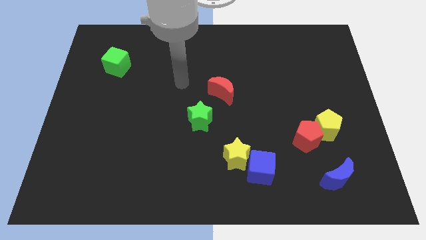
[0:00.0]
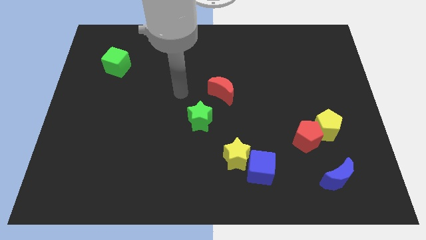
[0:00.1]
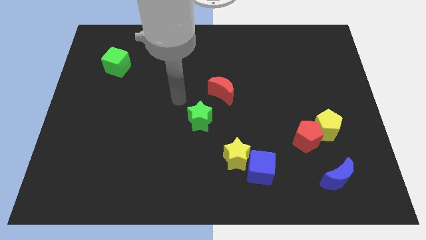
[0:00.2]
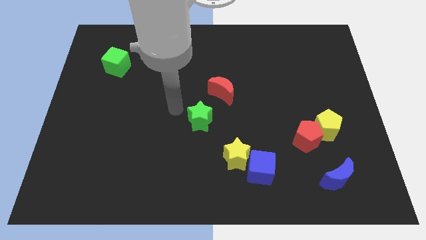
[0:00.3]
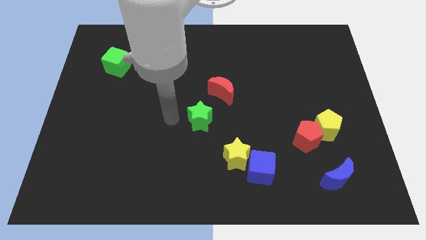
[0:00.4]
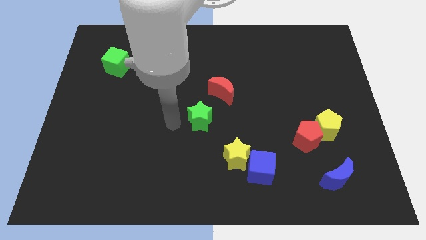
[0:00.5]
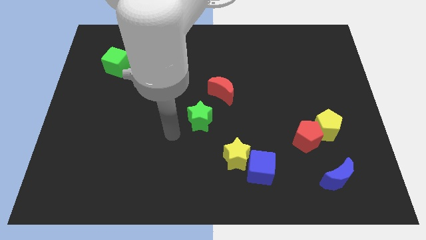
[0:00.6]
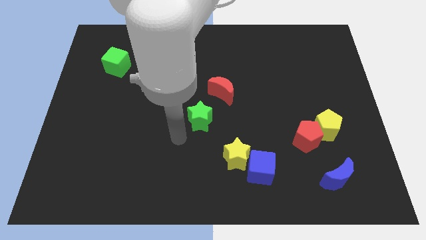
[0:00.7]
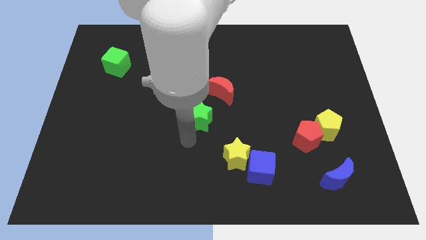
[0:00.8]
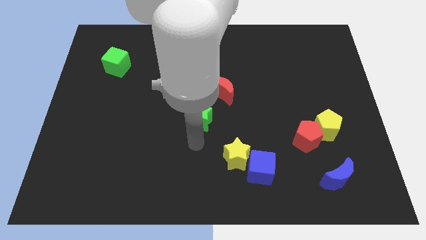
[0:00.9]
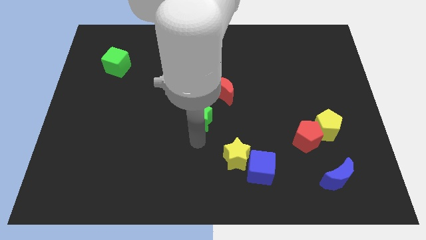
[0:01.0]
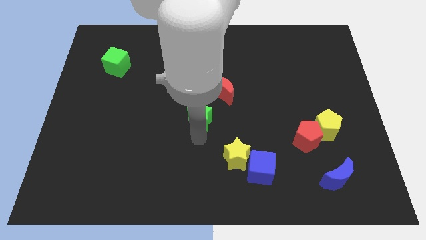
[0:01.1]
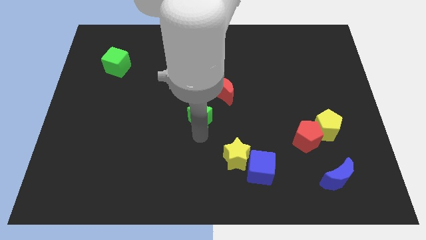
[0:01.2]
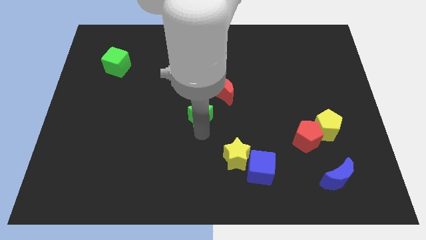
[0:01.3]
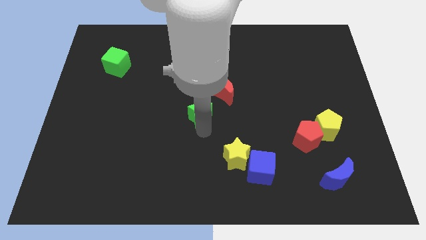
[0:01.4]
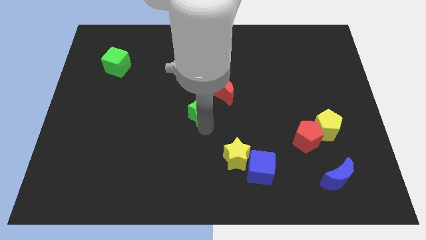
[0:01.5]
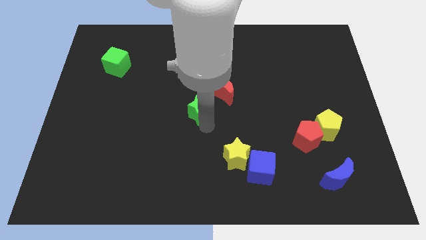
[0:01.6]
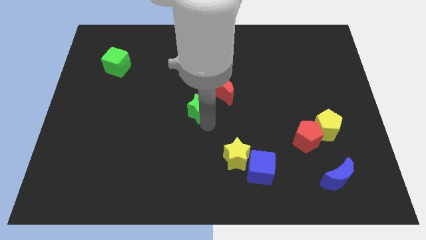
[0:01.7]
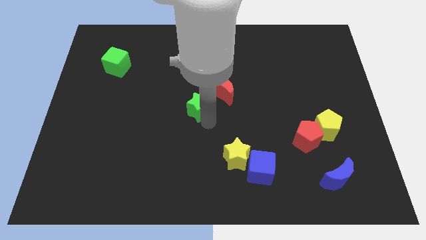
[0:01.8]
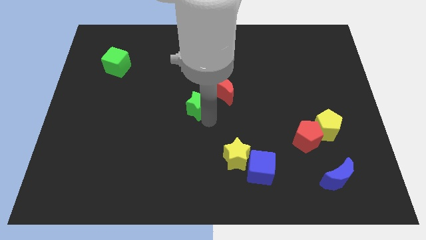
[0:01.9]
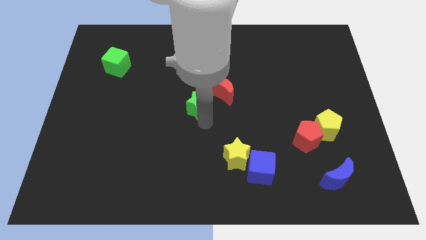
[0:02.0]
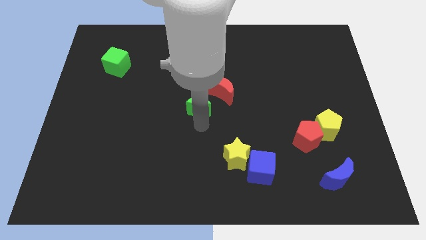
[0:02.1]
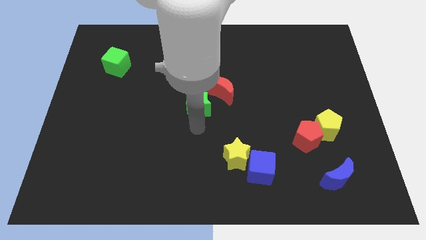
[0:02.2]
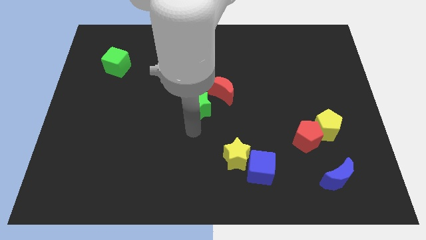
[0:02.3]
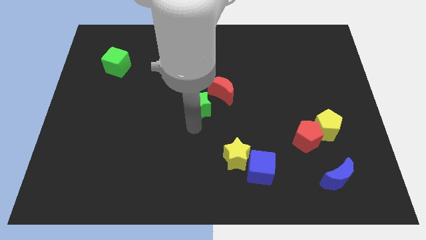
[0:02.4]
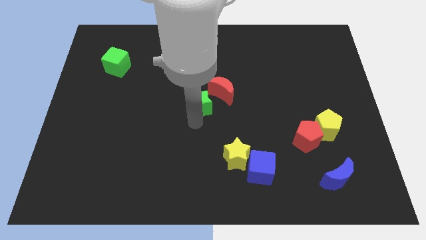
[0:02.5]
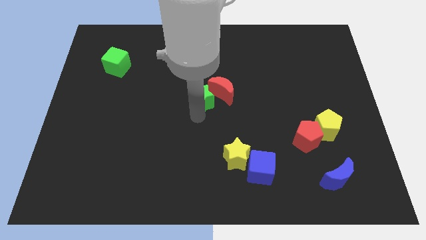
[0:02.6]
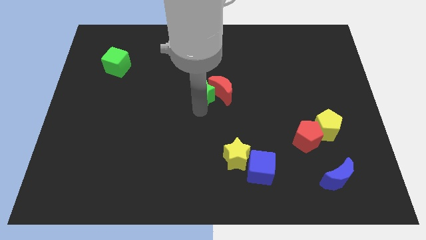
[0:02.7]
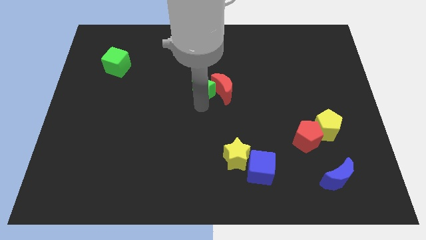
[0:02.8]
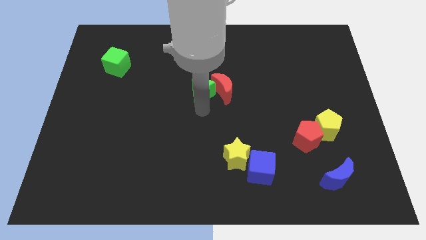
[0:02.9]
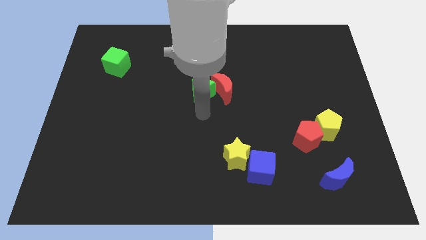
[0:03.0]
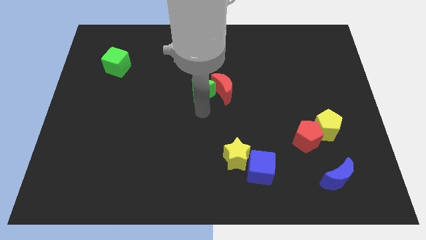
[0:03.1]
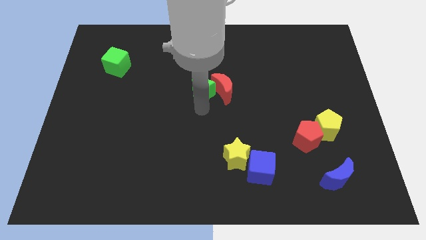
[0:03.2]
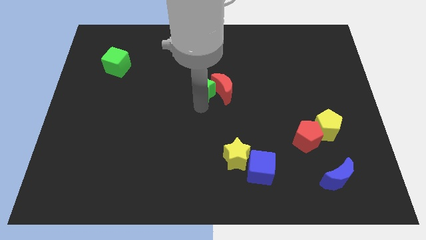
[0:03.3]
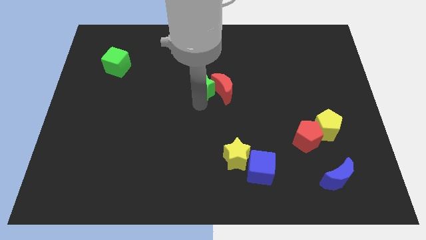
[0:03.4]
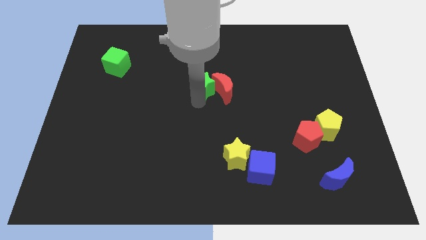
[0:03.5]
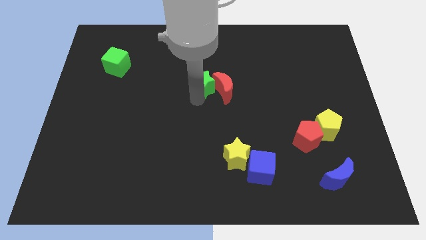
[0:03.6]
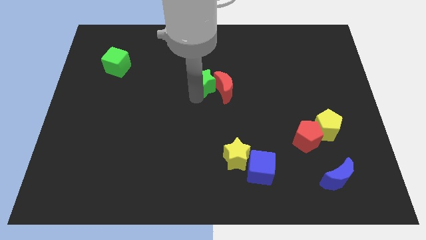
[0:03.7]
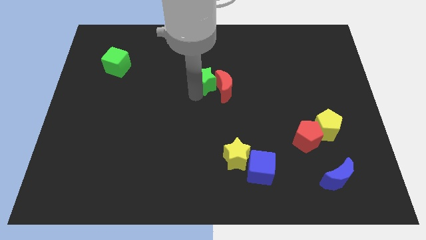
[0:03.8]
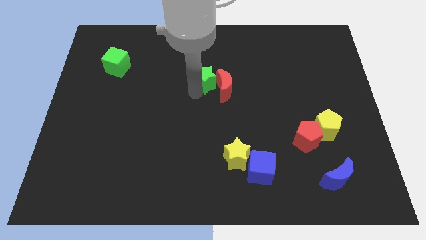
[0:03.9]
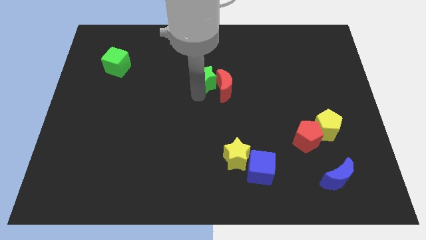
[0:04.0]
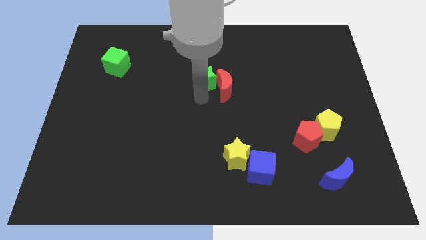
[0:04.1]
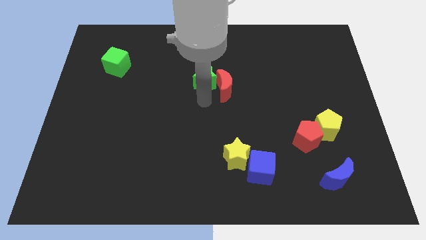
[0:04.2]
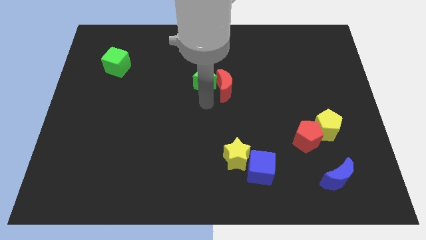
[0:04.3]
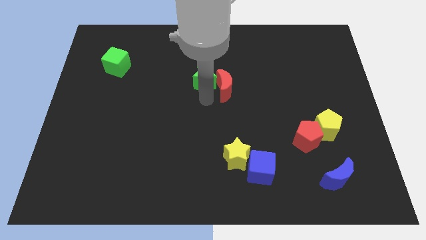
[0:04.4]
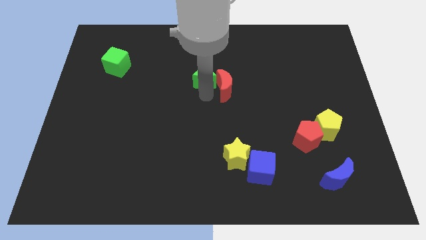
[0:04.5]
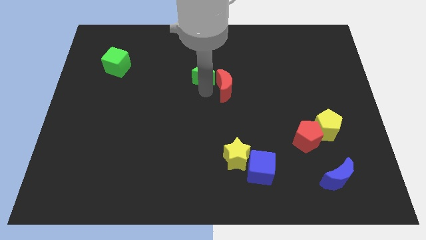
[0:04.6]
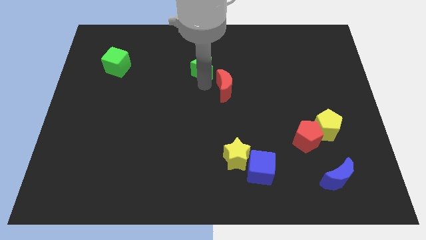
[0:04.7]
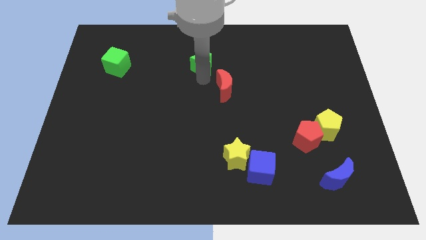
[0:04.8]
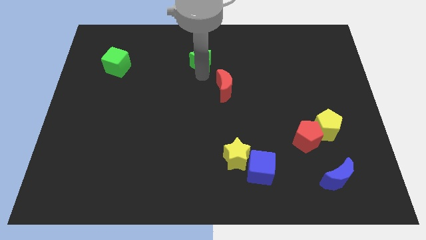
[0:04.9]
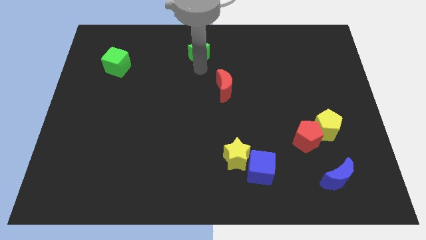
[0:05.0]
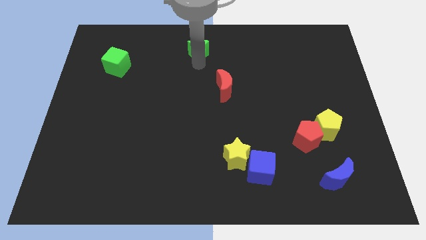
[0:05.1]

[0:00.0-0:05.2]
put the green star to the top side

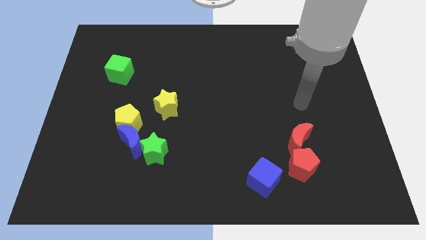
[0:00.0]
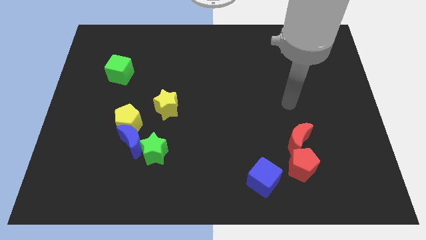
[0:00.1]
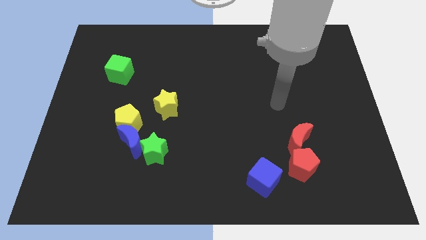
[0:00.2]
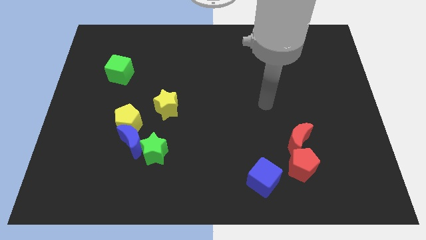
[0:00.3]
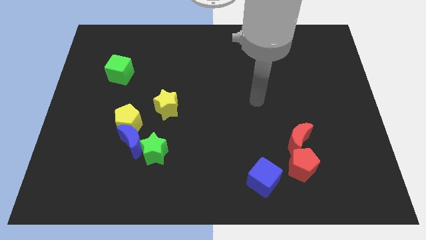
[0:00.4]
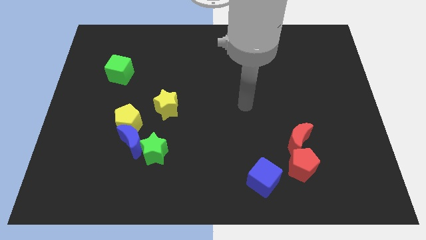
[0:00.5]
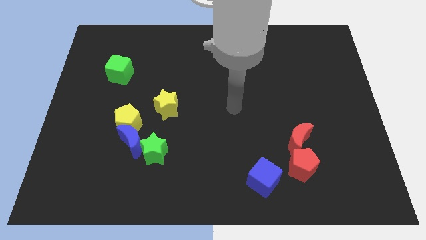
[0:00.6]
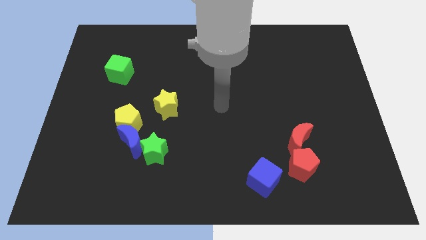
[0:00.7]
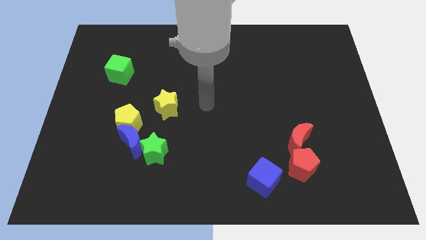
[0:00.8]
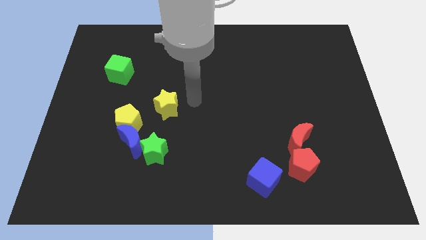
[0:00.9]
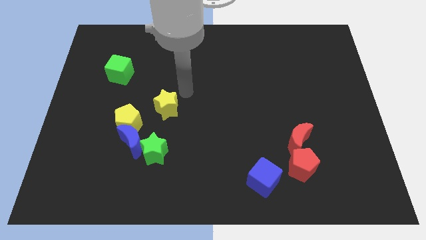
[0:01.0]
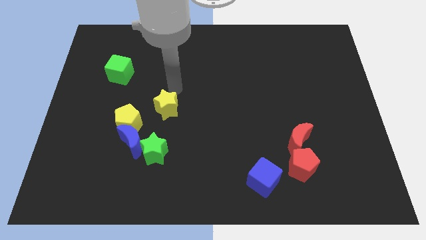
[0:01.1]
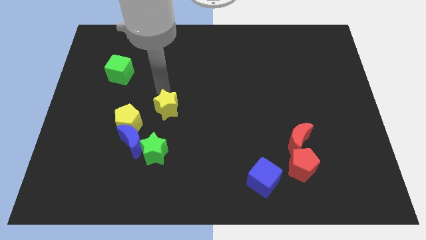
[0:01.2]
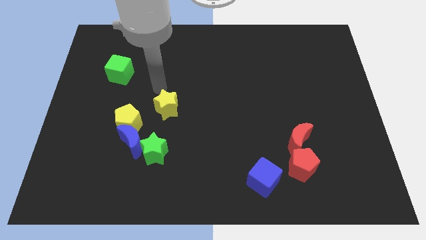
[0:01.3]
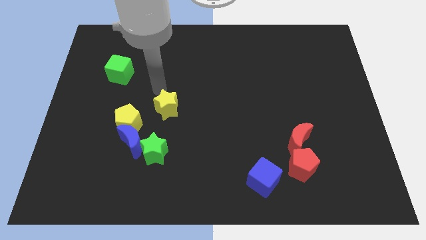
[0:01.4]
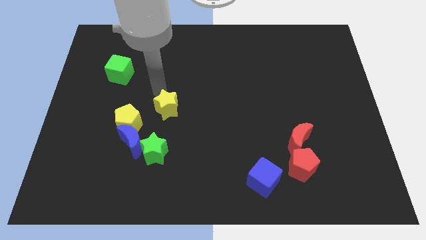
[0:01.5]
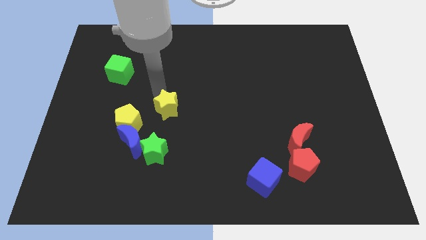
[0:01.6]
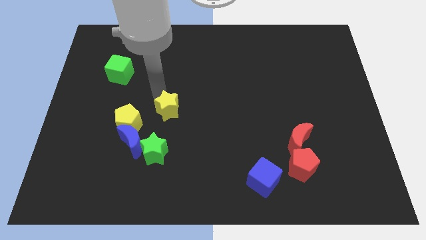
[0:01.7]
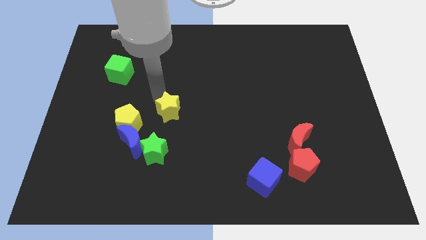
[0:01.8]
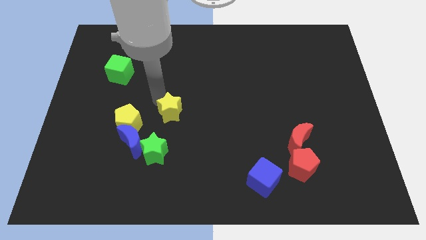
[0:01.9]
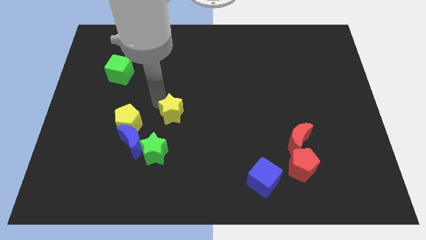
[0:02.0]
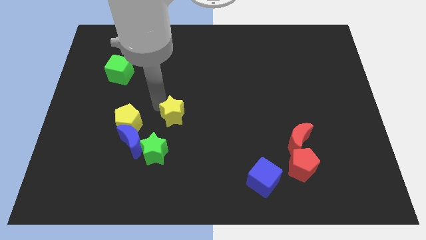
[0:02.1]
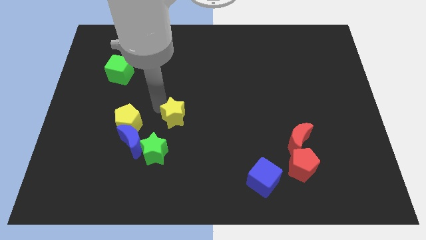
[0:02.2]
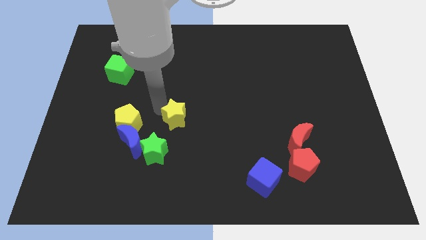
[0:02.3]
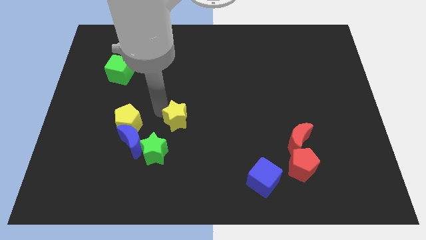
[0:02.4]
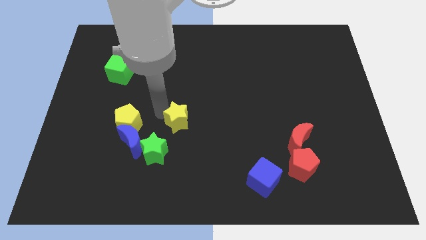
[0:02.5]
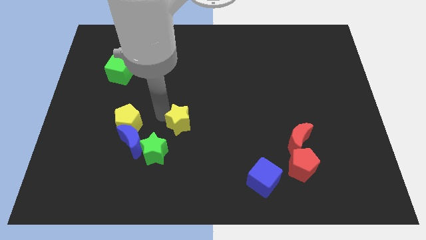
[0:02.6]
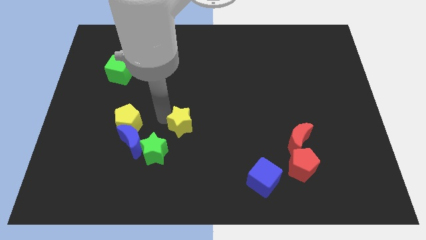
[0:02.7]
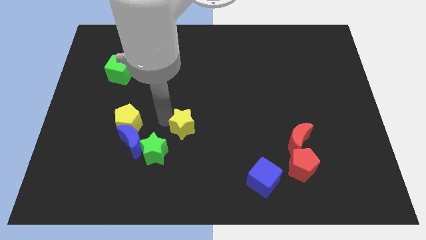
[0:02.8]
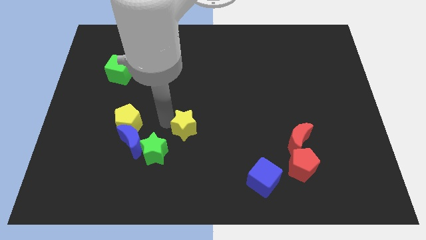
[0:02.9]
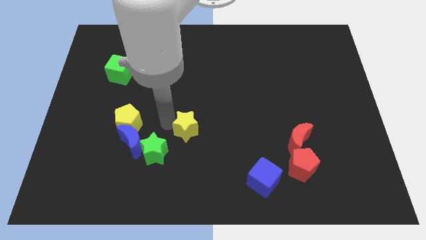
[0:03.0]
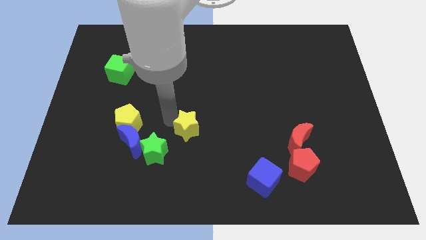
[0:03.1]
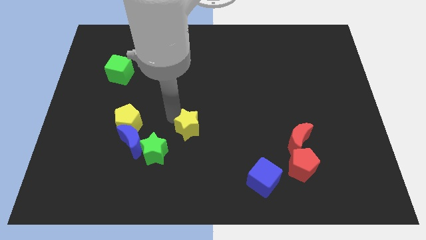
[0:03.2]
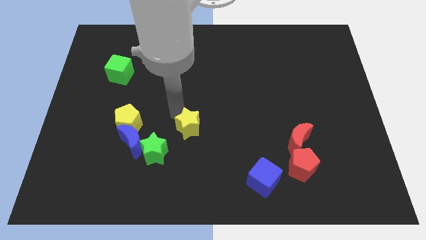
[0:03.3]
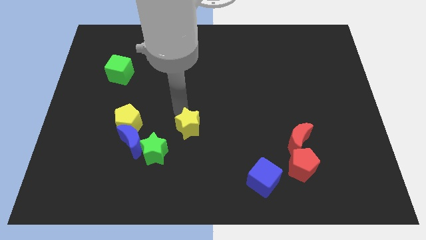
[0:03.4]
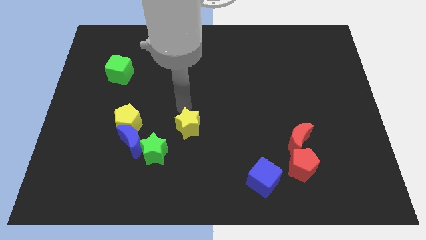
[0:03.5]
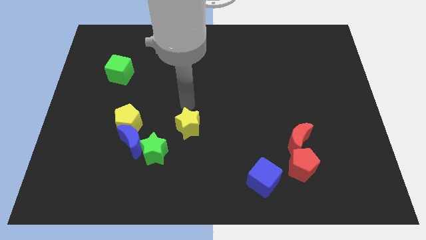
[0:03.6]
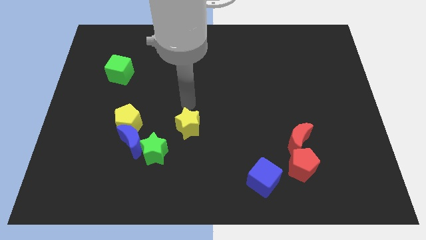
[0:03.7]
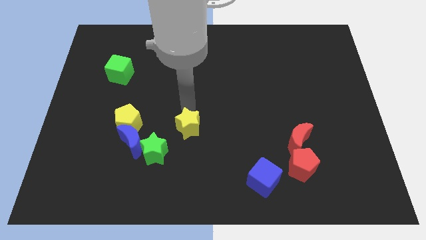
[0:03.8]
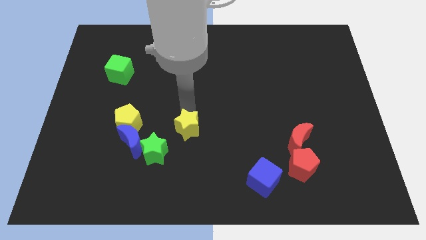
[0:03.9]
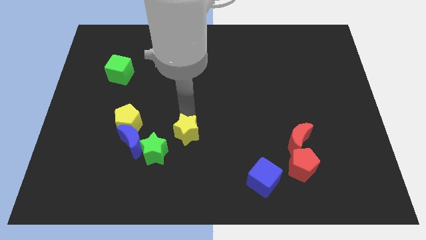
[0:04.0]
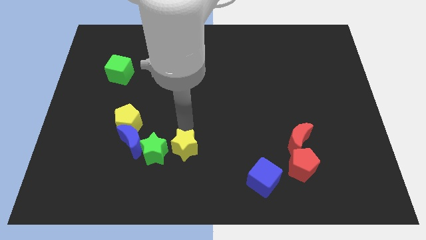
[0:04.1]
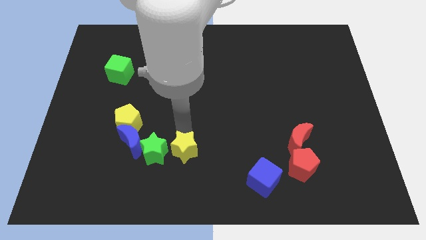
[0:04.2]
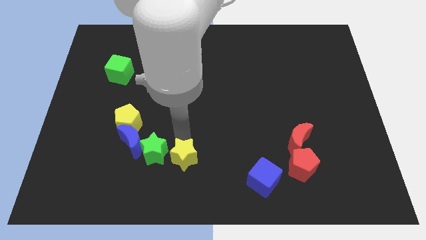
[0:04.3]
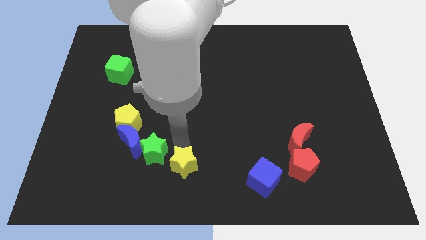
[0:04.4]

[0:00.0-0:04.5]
push the yellow star to the bottom
